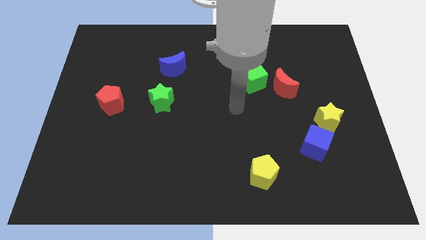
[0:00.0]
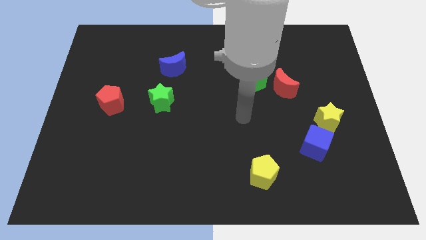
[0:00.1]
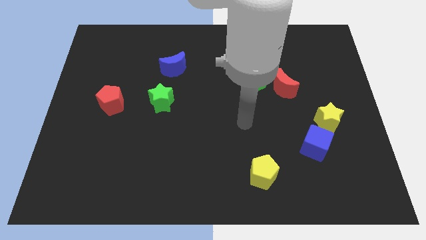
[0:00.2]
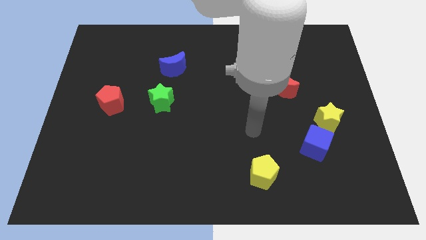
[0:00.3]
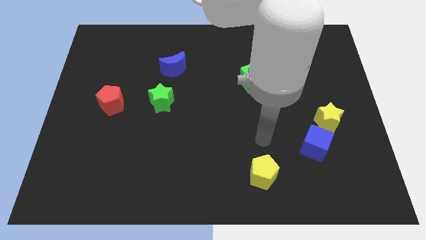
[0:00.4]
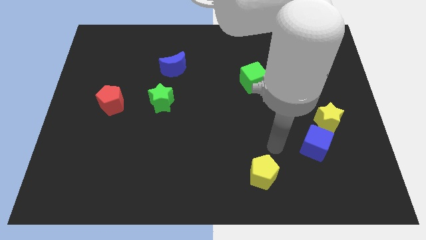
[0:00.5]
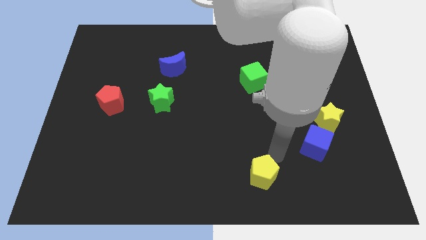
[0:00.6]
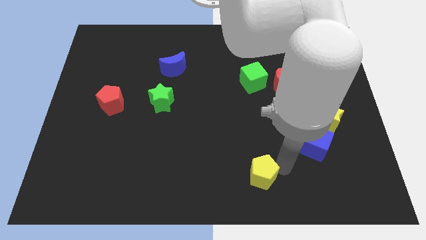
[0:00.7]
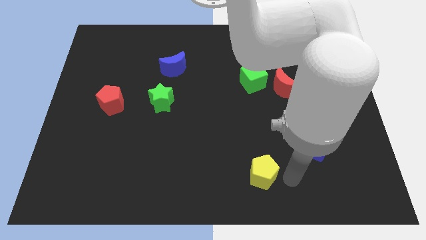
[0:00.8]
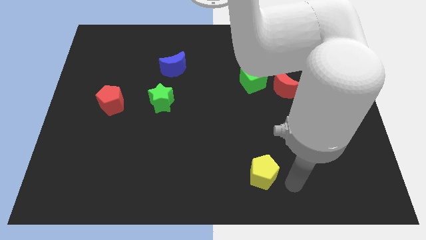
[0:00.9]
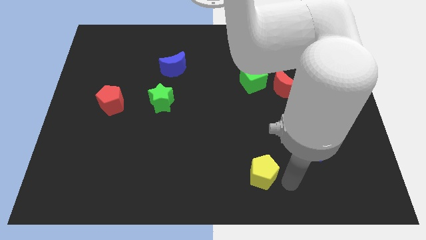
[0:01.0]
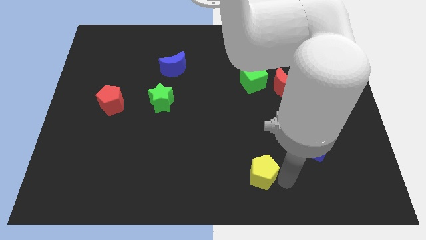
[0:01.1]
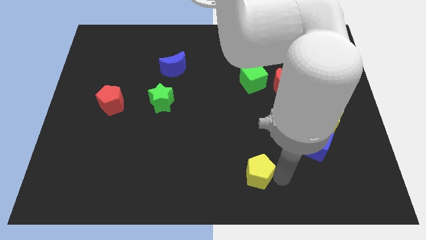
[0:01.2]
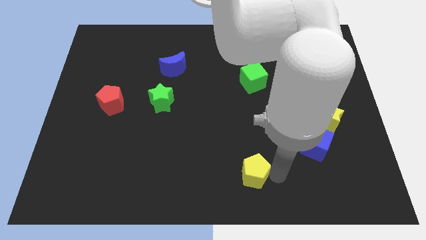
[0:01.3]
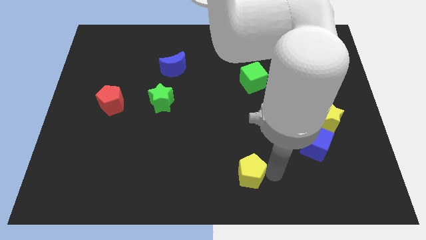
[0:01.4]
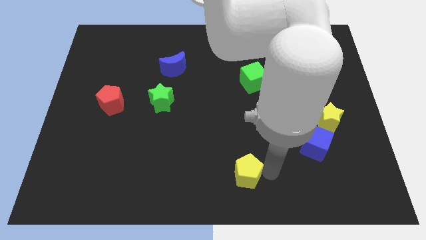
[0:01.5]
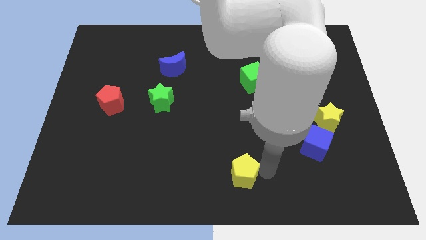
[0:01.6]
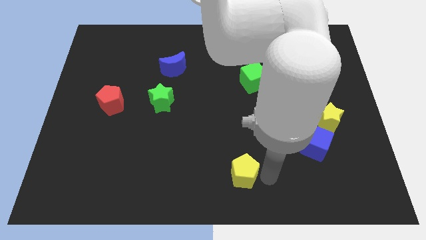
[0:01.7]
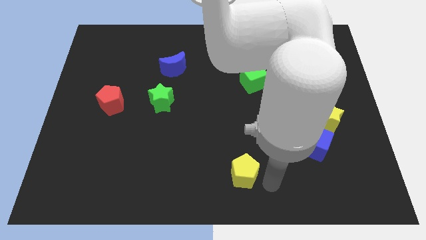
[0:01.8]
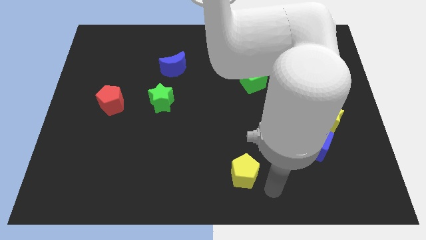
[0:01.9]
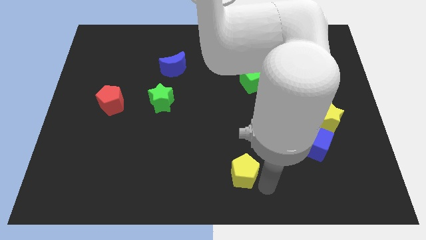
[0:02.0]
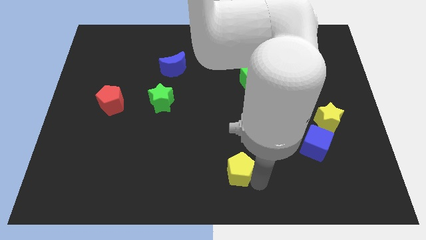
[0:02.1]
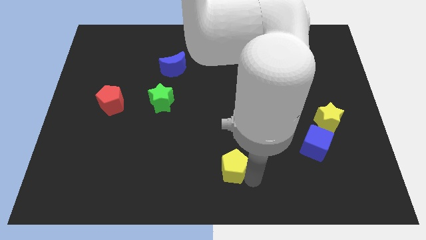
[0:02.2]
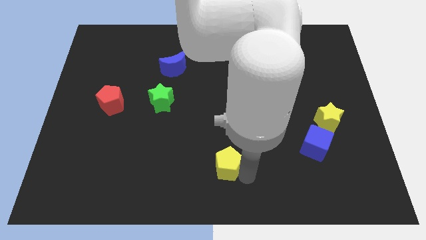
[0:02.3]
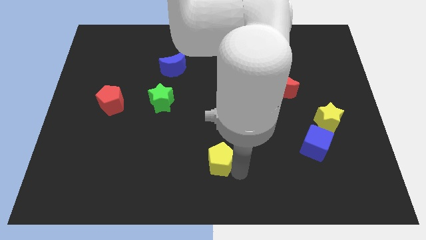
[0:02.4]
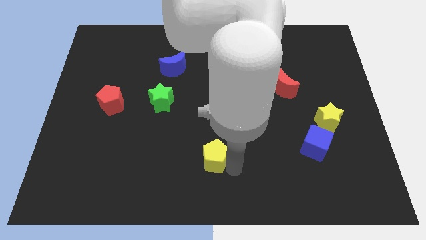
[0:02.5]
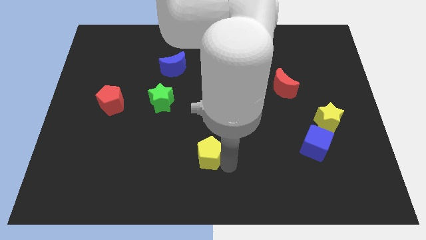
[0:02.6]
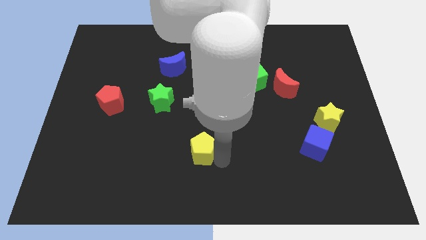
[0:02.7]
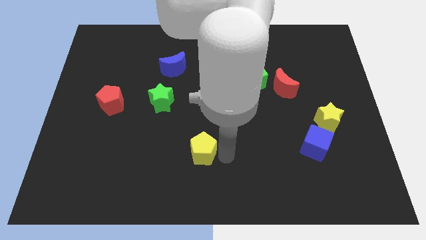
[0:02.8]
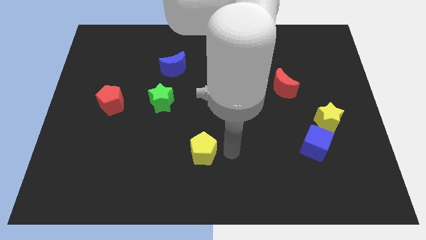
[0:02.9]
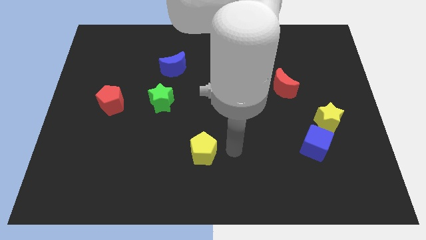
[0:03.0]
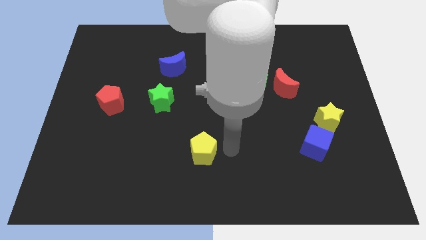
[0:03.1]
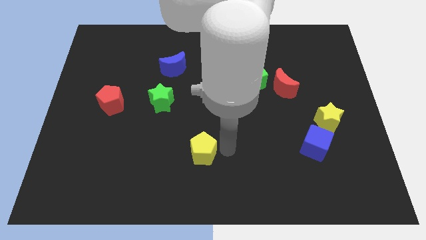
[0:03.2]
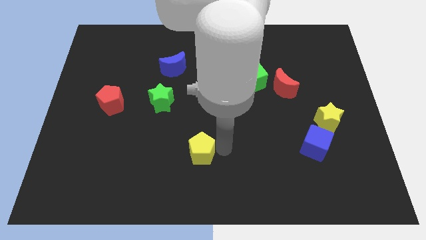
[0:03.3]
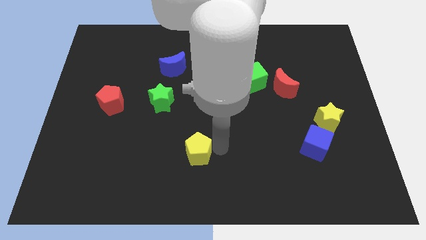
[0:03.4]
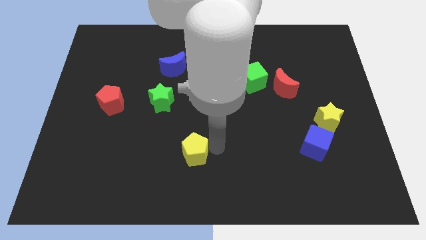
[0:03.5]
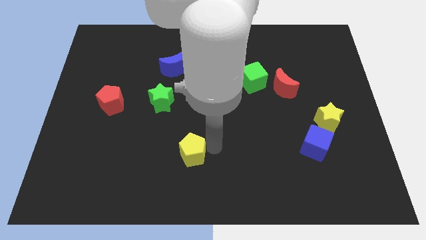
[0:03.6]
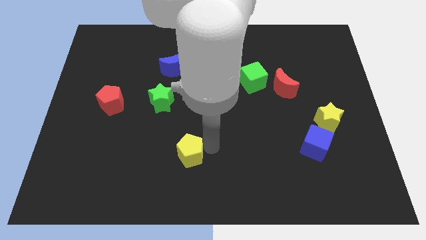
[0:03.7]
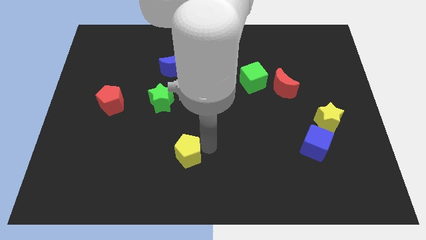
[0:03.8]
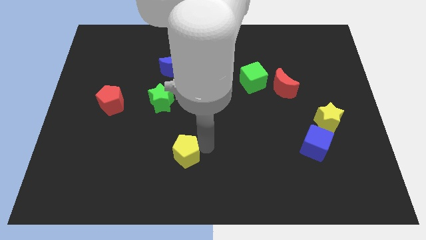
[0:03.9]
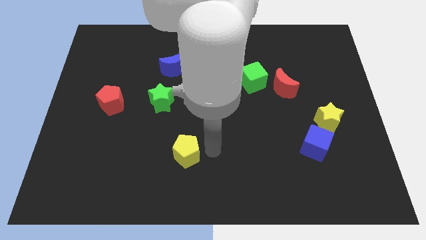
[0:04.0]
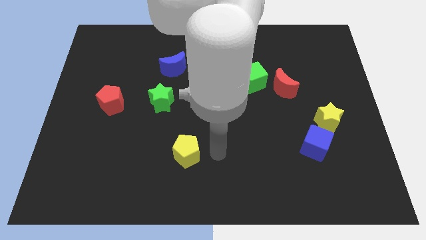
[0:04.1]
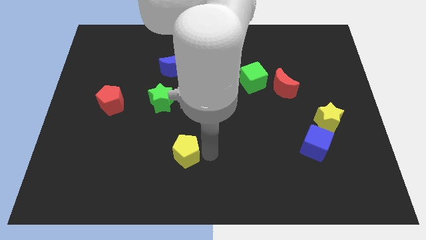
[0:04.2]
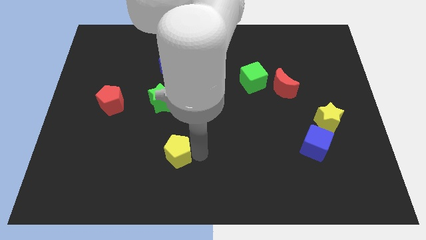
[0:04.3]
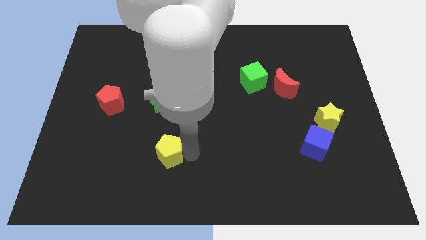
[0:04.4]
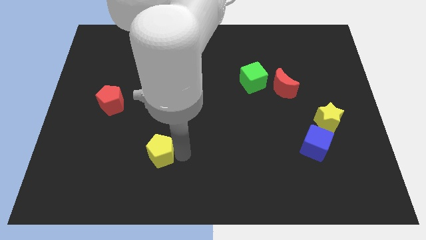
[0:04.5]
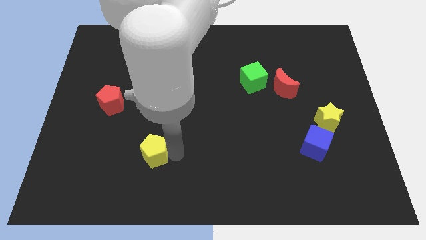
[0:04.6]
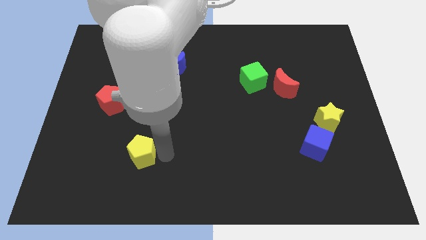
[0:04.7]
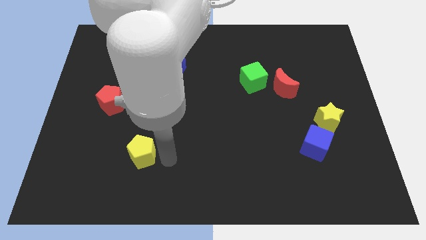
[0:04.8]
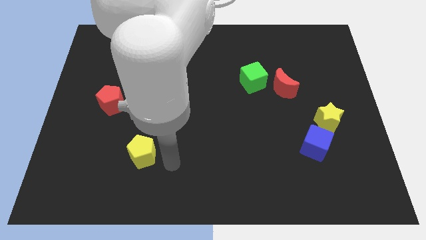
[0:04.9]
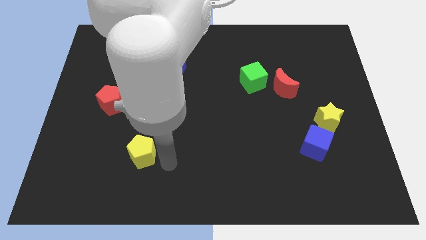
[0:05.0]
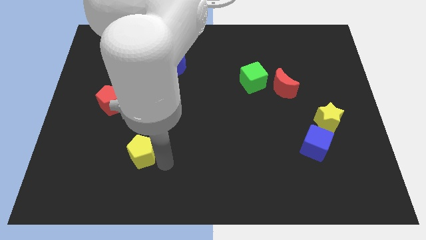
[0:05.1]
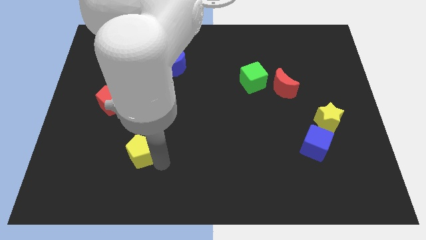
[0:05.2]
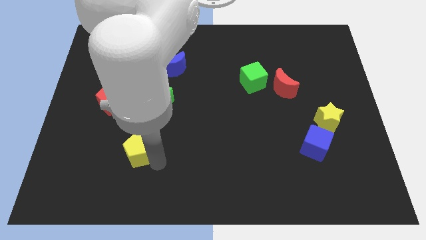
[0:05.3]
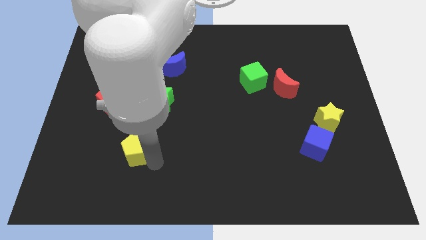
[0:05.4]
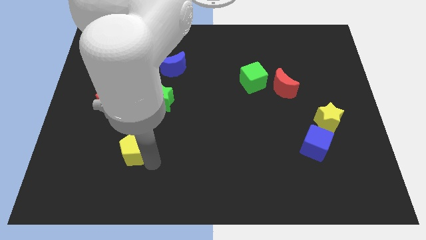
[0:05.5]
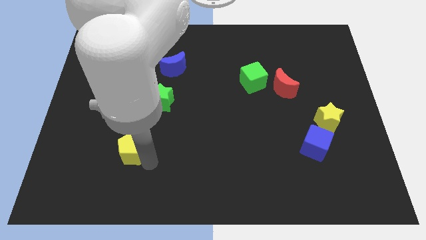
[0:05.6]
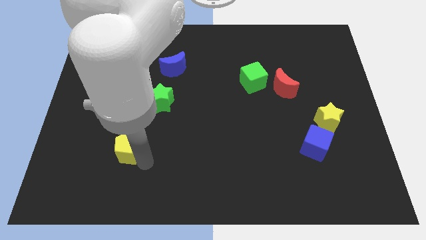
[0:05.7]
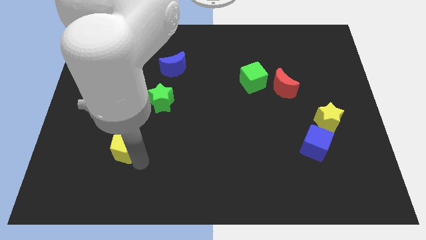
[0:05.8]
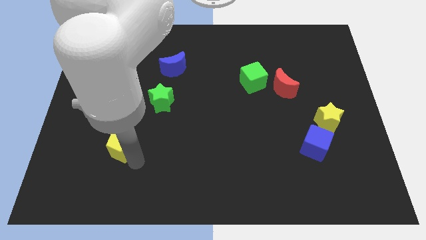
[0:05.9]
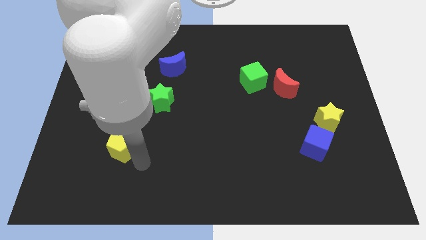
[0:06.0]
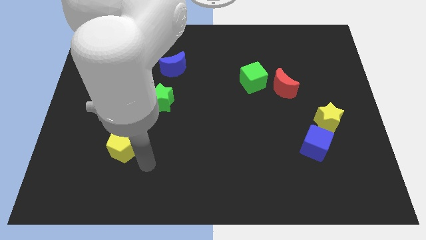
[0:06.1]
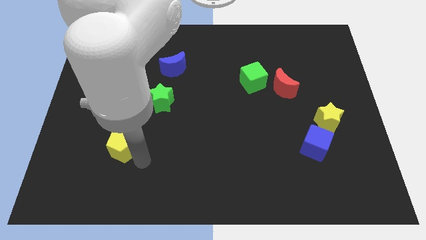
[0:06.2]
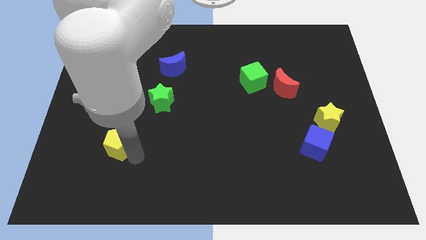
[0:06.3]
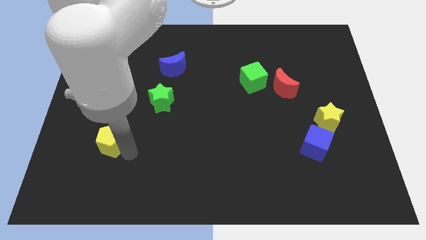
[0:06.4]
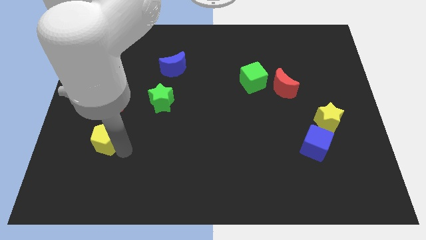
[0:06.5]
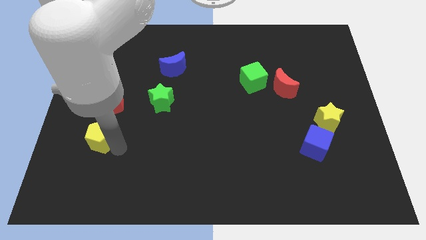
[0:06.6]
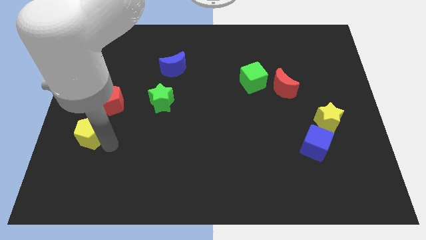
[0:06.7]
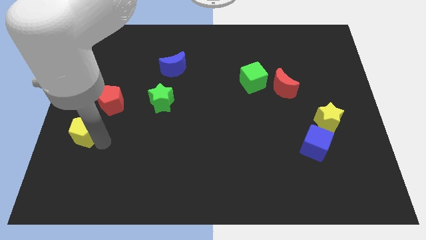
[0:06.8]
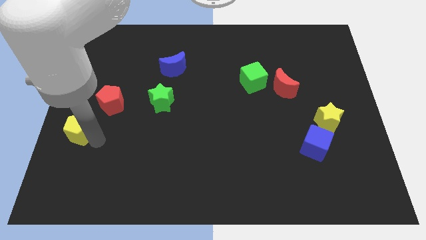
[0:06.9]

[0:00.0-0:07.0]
push the yellow pentagon to the center left
